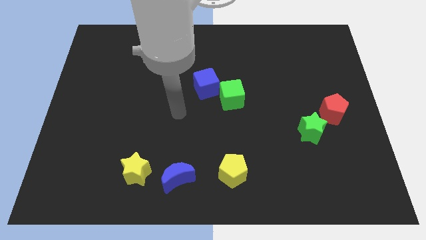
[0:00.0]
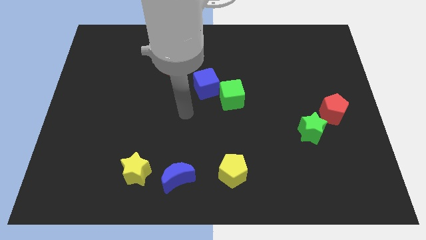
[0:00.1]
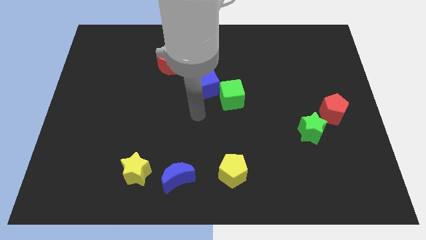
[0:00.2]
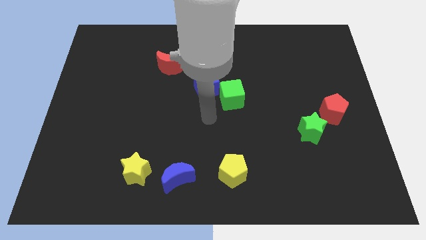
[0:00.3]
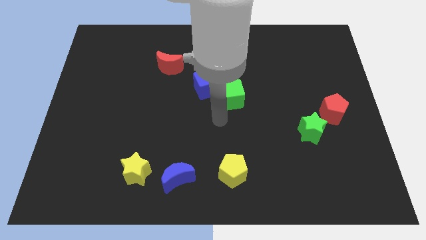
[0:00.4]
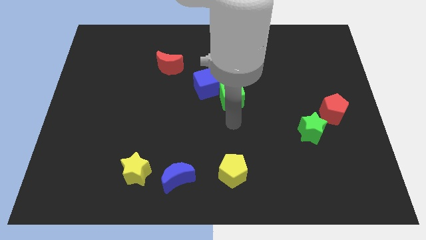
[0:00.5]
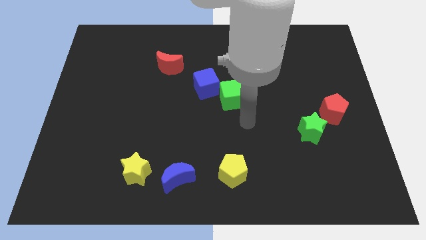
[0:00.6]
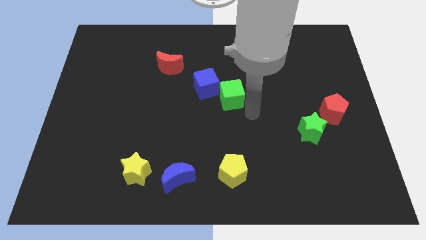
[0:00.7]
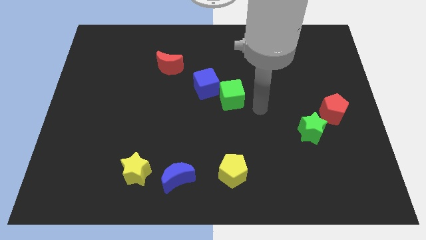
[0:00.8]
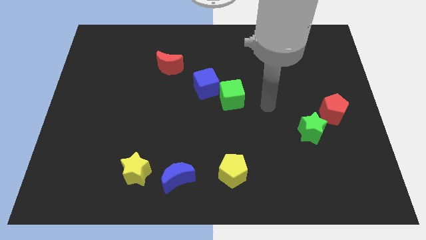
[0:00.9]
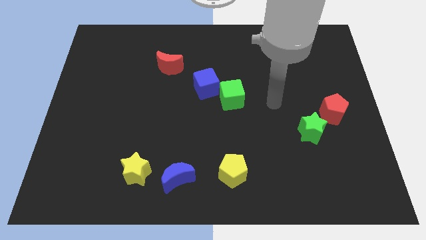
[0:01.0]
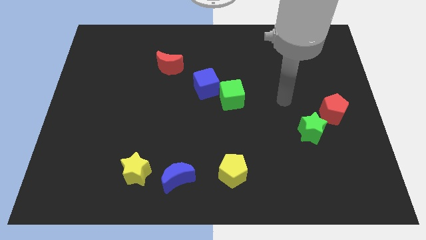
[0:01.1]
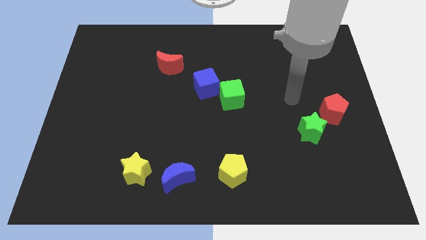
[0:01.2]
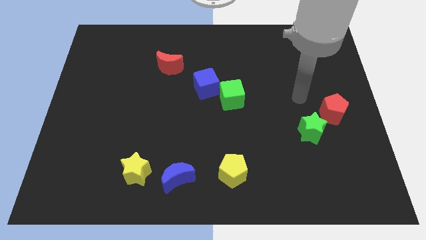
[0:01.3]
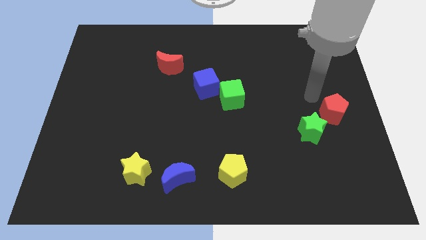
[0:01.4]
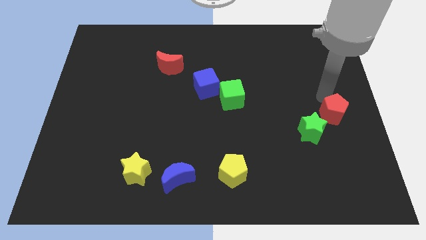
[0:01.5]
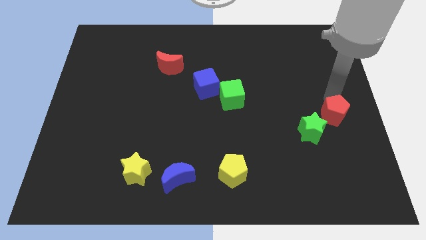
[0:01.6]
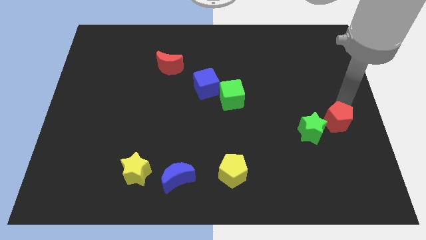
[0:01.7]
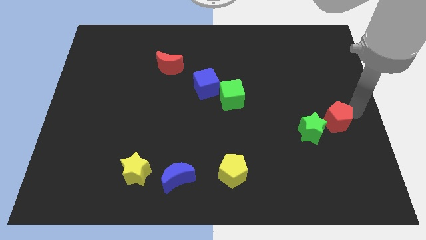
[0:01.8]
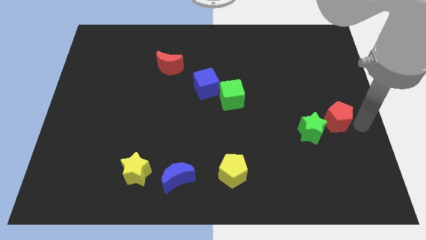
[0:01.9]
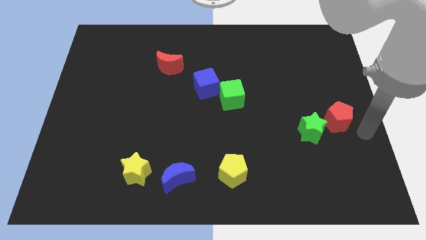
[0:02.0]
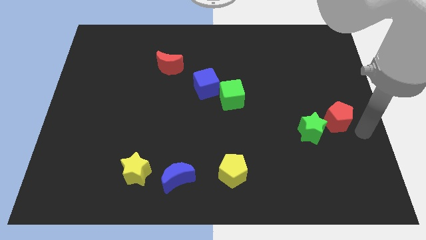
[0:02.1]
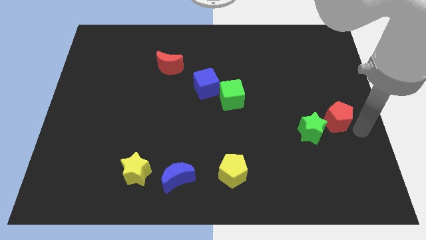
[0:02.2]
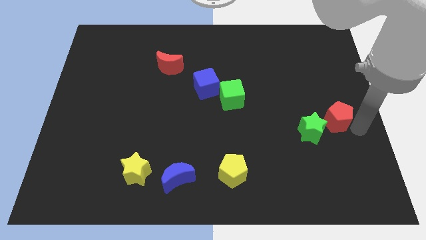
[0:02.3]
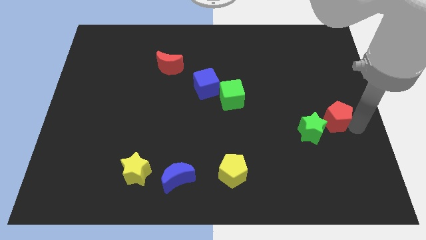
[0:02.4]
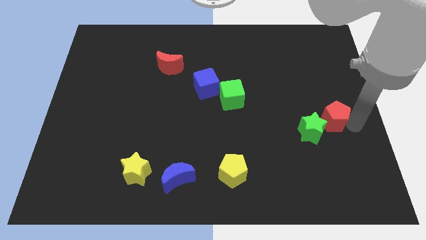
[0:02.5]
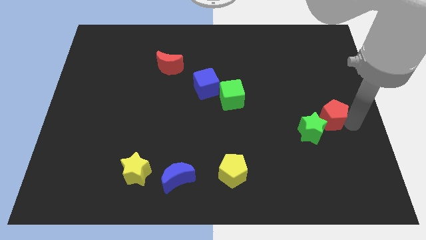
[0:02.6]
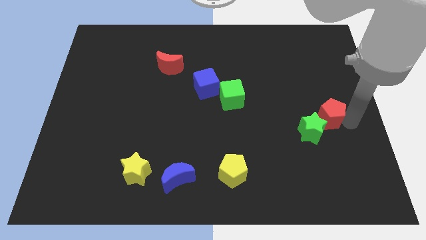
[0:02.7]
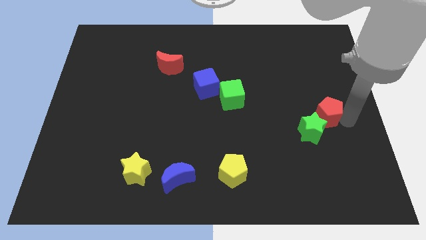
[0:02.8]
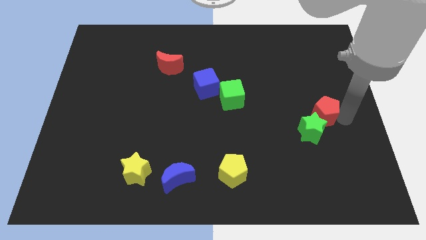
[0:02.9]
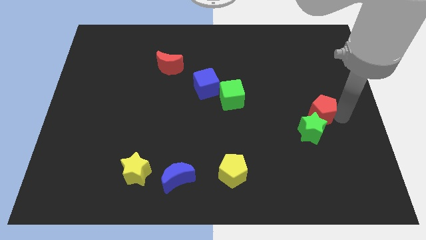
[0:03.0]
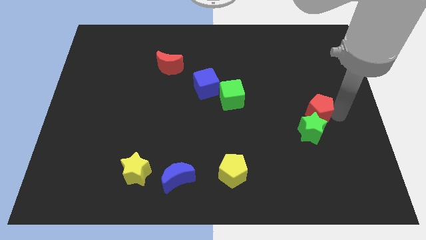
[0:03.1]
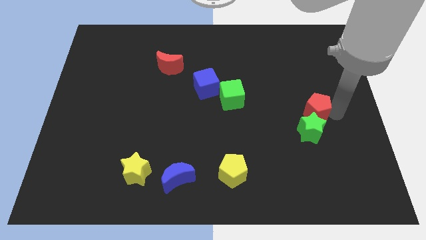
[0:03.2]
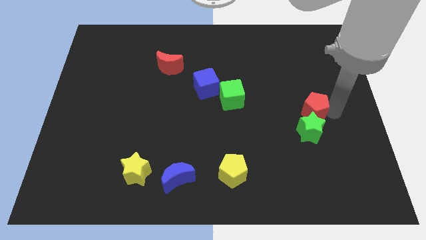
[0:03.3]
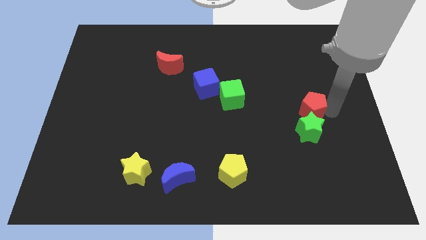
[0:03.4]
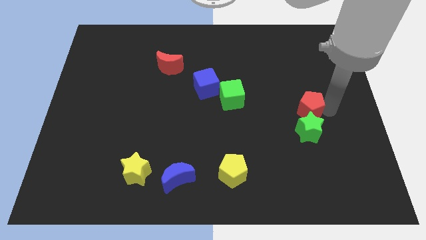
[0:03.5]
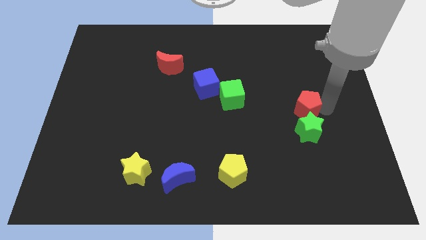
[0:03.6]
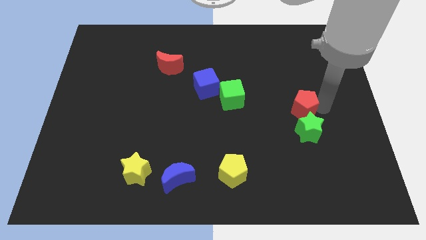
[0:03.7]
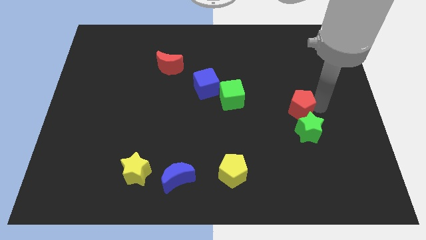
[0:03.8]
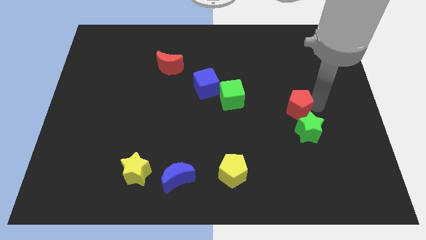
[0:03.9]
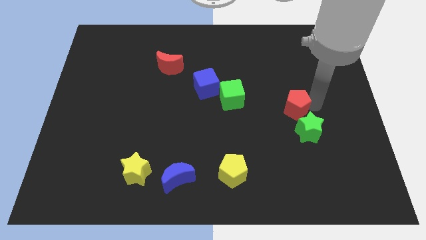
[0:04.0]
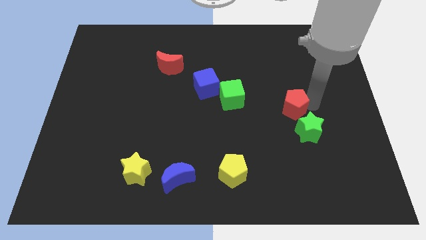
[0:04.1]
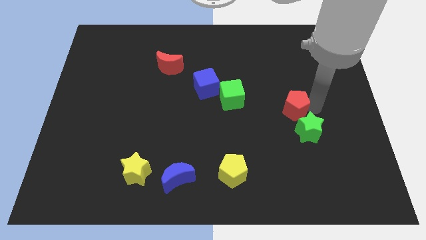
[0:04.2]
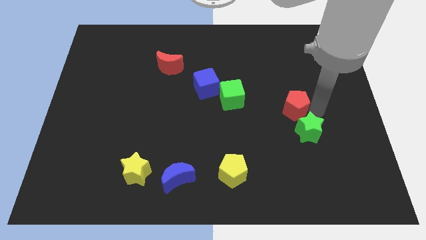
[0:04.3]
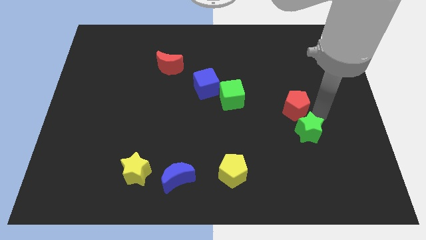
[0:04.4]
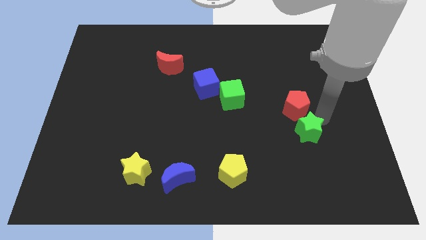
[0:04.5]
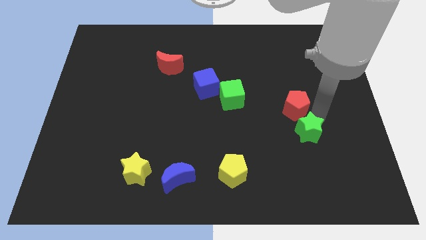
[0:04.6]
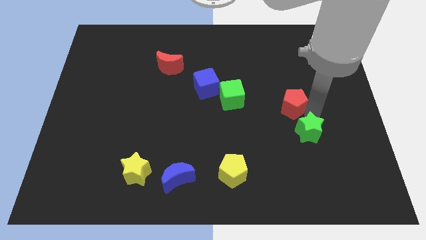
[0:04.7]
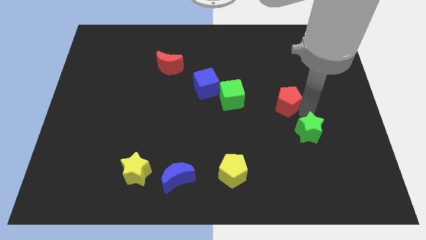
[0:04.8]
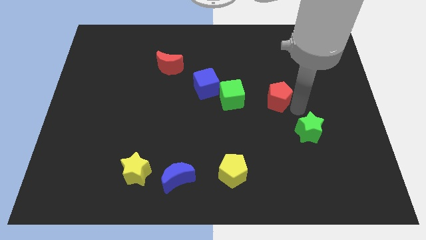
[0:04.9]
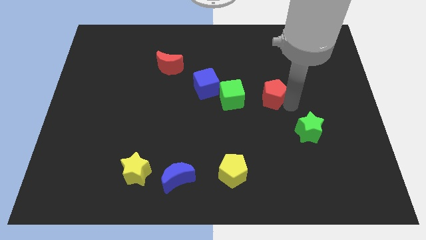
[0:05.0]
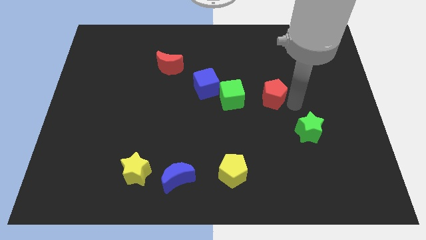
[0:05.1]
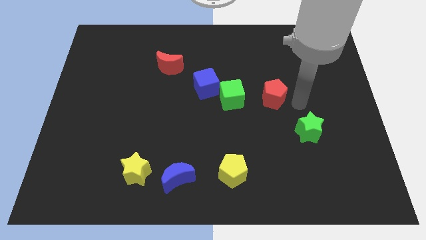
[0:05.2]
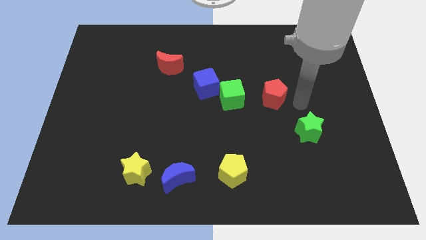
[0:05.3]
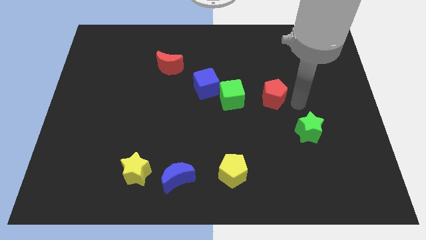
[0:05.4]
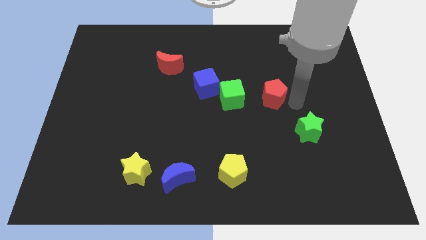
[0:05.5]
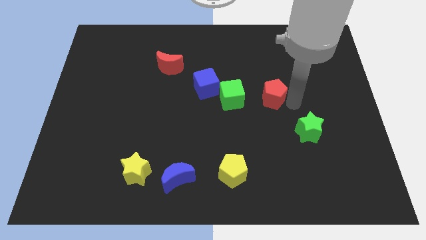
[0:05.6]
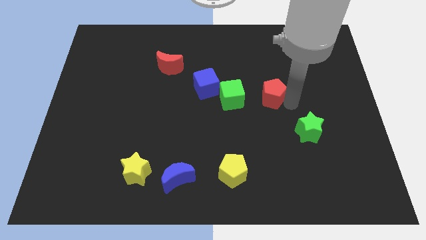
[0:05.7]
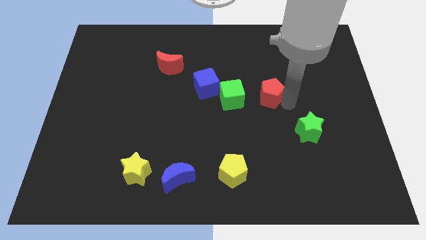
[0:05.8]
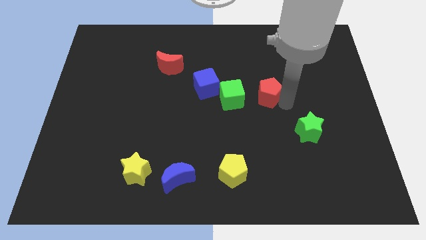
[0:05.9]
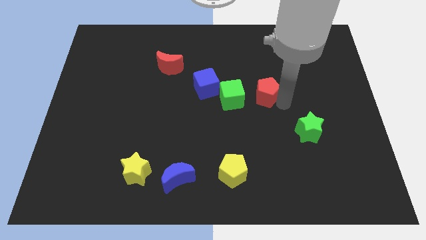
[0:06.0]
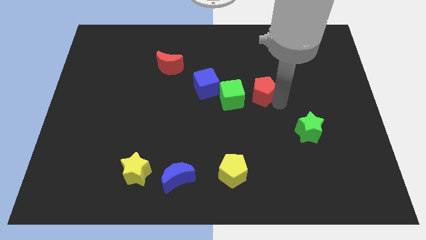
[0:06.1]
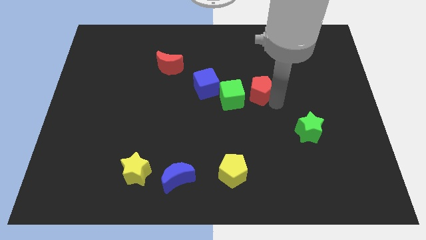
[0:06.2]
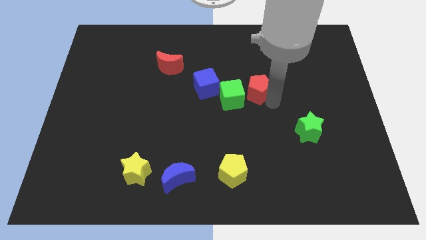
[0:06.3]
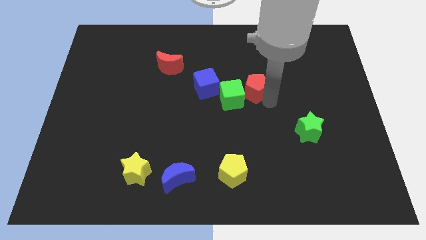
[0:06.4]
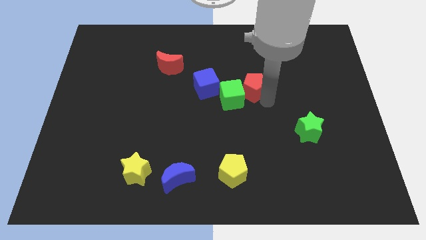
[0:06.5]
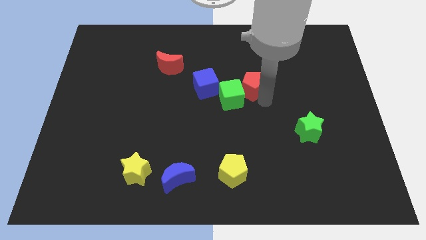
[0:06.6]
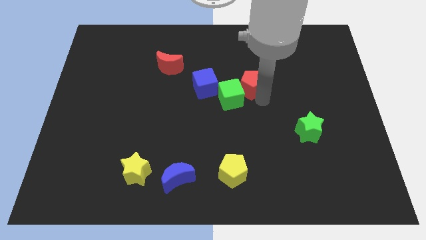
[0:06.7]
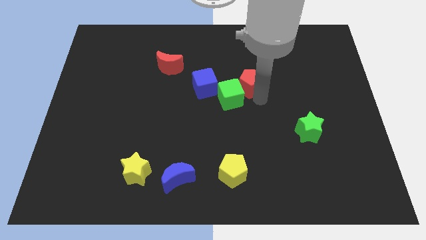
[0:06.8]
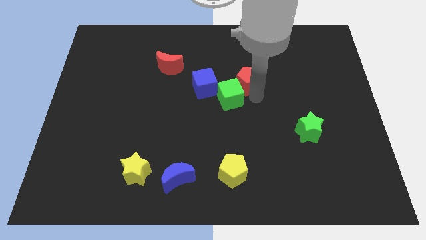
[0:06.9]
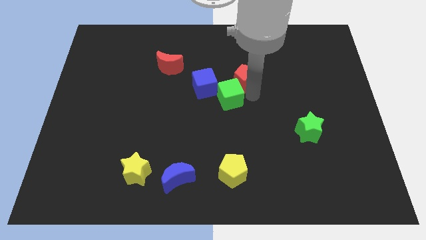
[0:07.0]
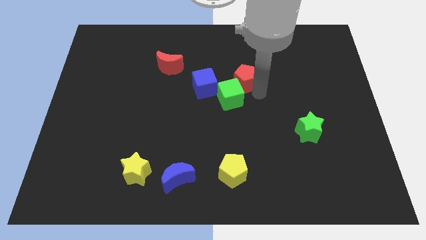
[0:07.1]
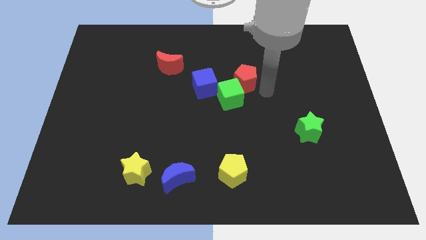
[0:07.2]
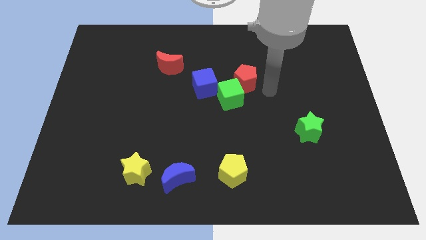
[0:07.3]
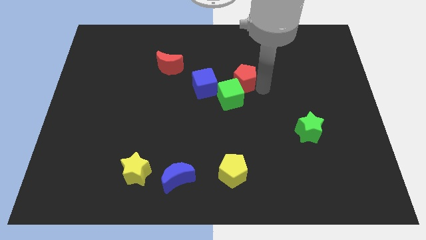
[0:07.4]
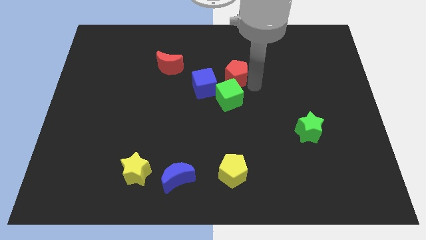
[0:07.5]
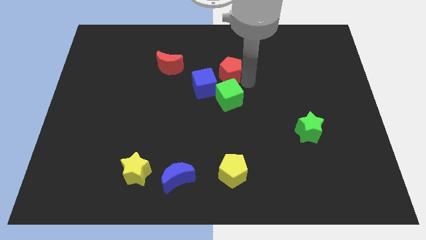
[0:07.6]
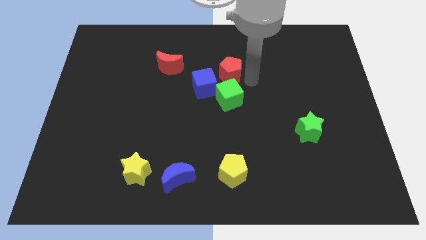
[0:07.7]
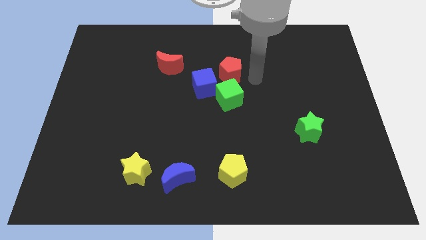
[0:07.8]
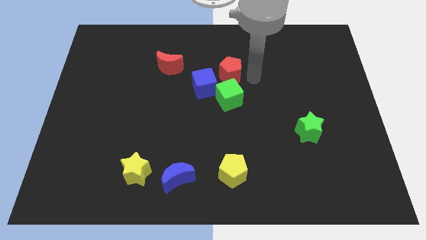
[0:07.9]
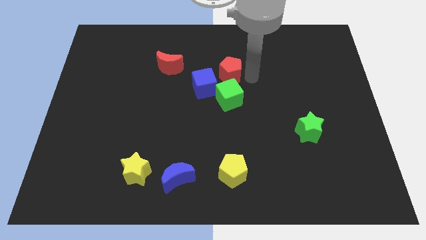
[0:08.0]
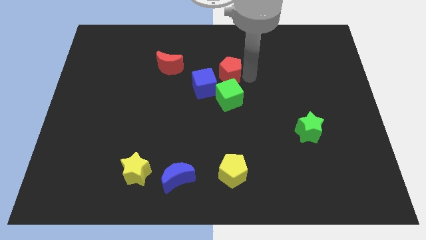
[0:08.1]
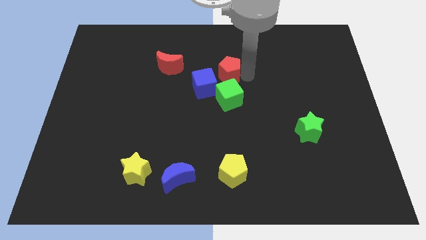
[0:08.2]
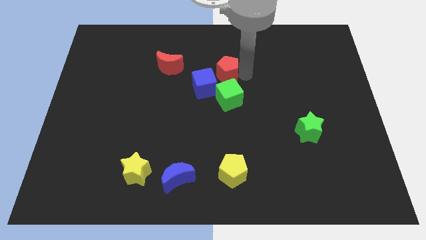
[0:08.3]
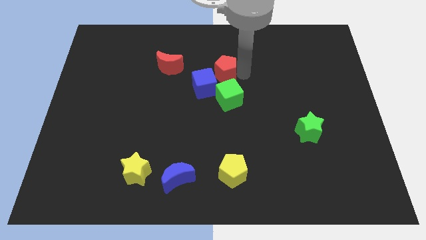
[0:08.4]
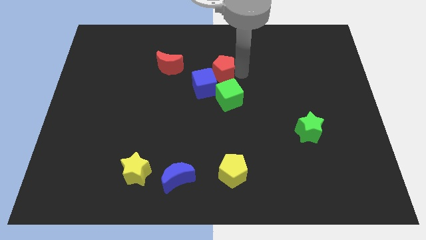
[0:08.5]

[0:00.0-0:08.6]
push the red pentagon to the top left side of the green cube
